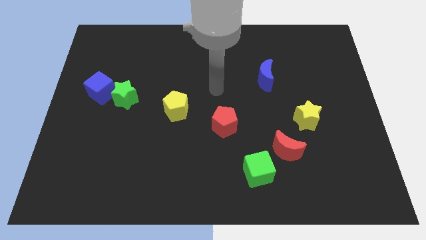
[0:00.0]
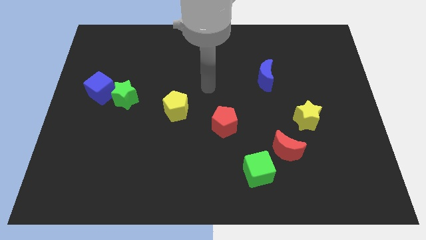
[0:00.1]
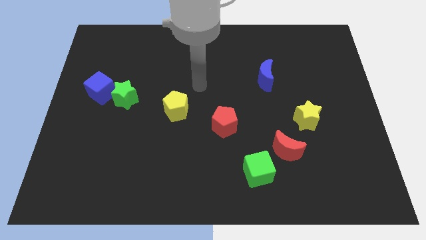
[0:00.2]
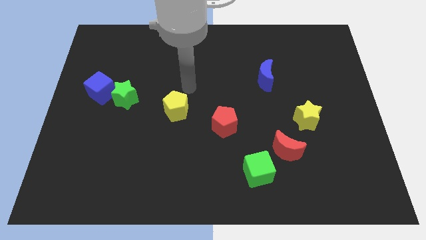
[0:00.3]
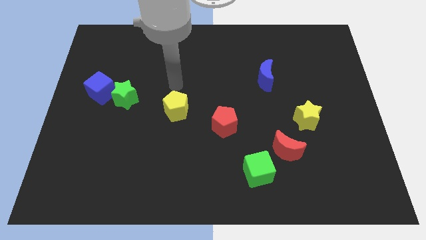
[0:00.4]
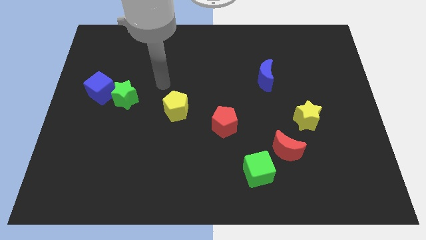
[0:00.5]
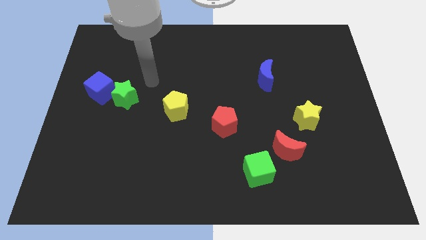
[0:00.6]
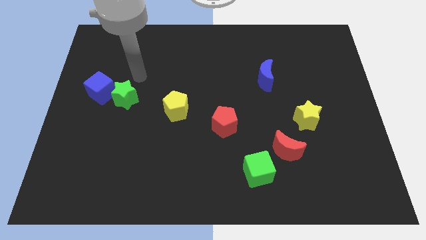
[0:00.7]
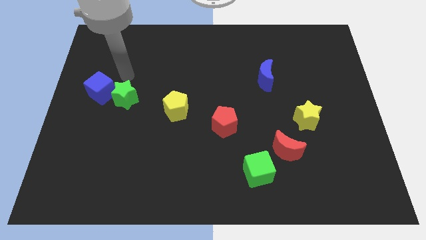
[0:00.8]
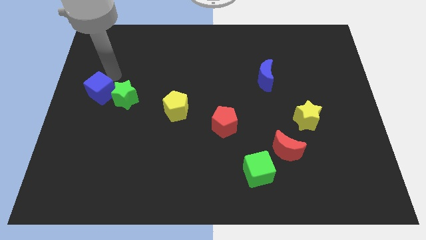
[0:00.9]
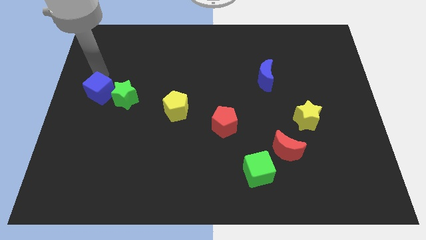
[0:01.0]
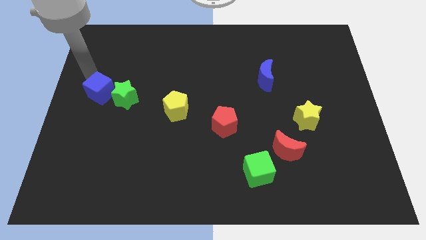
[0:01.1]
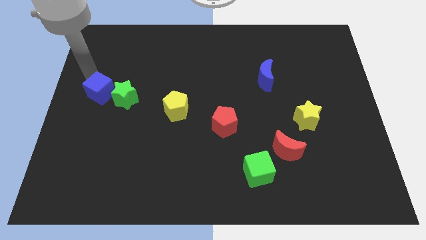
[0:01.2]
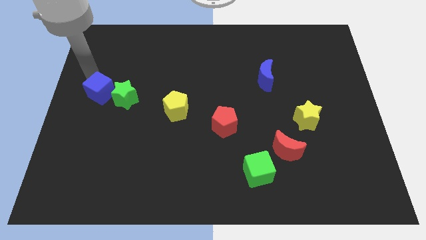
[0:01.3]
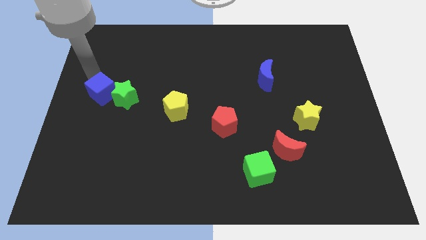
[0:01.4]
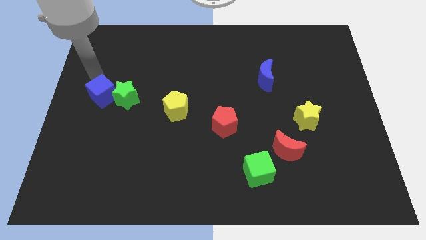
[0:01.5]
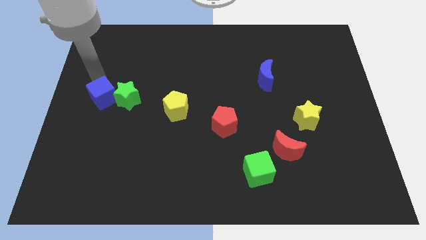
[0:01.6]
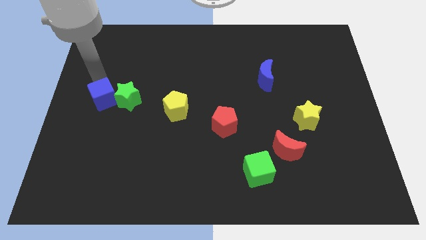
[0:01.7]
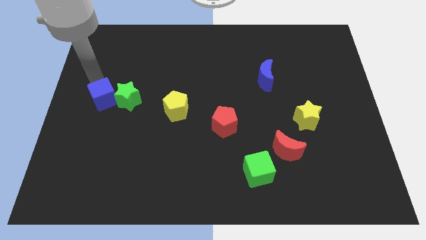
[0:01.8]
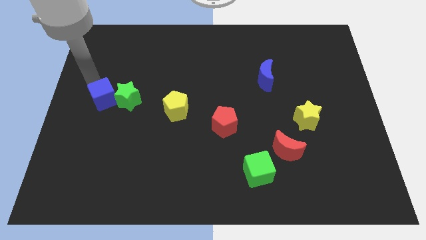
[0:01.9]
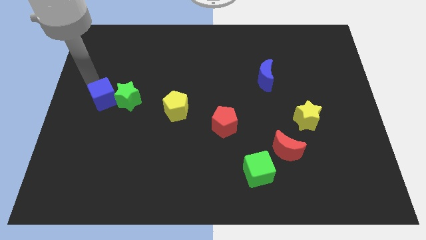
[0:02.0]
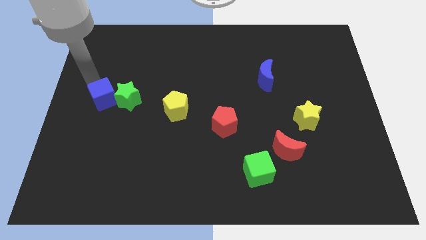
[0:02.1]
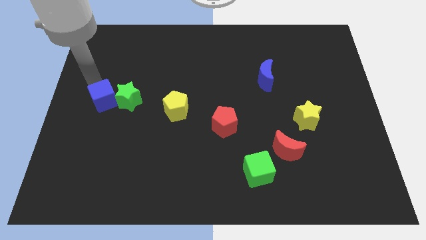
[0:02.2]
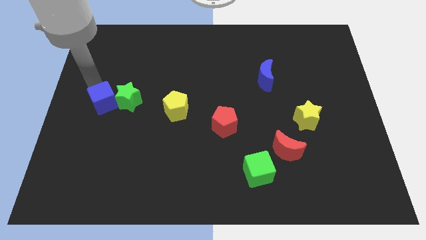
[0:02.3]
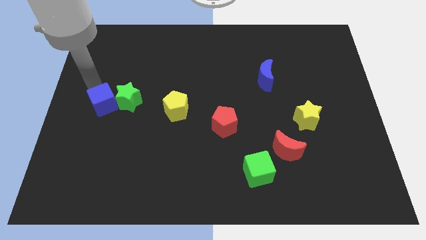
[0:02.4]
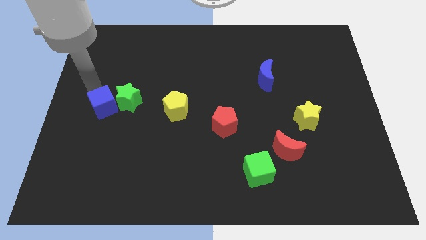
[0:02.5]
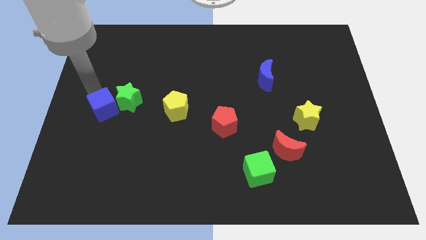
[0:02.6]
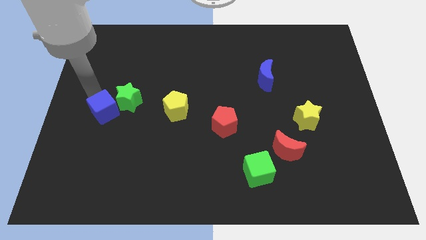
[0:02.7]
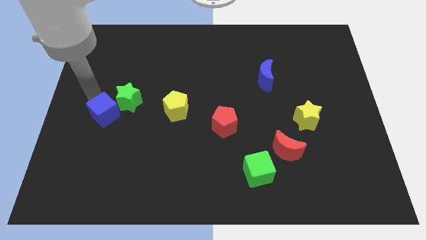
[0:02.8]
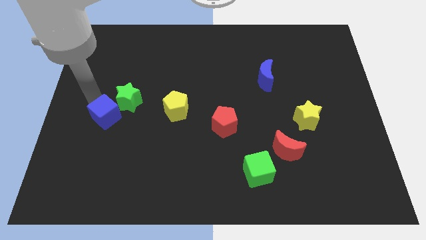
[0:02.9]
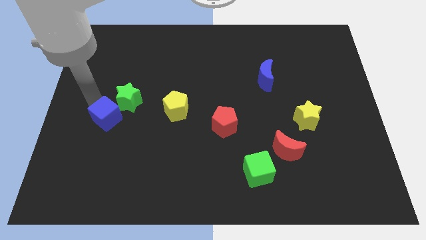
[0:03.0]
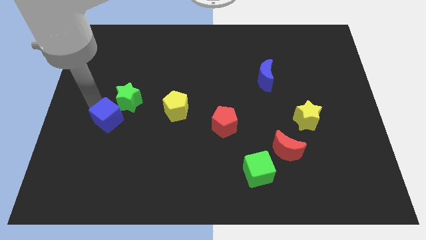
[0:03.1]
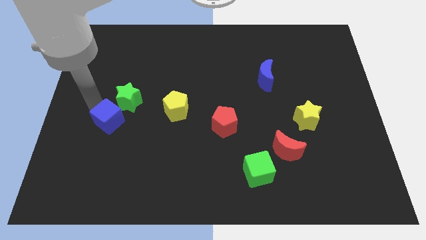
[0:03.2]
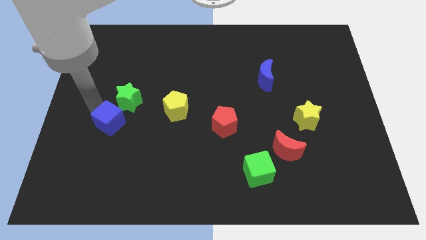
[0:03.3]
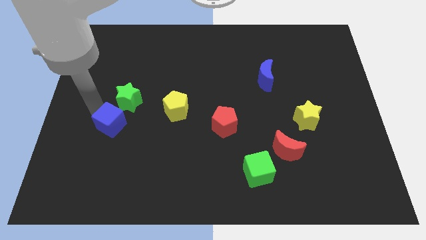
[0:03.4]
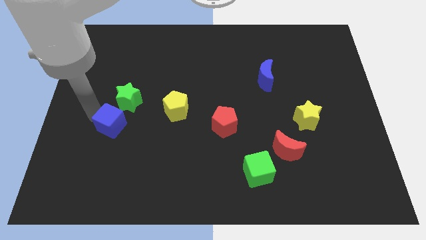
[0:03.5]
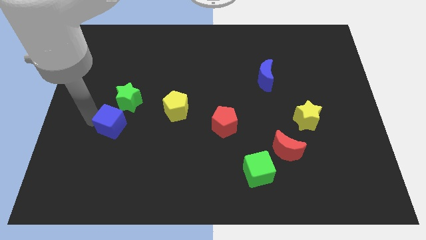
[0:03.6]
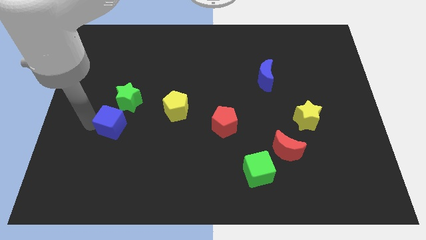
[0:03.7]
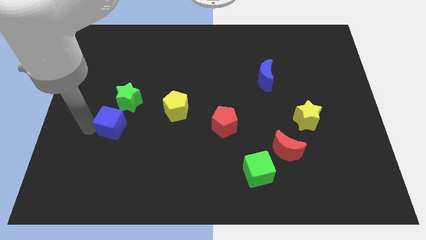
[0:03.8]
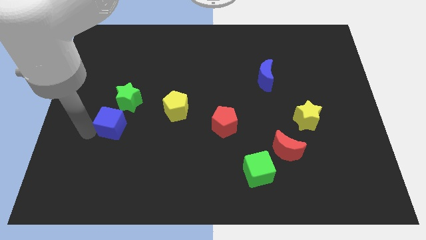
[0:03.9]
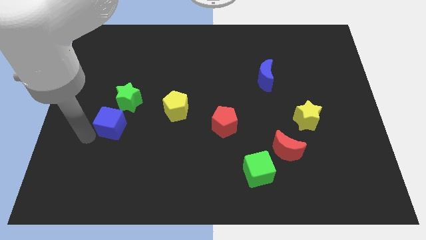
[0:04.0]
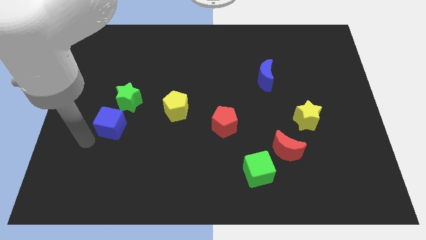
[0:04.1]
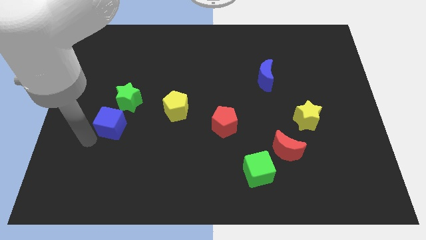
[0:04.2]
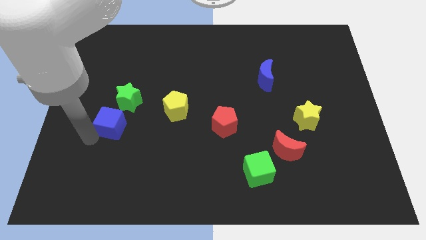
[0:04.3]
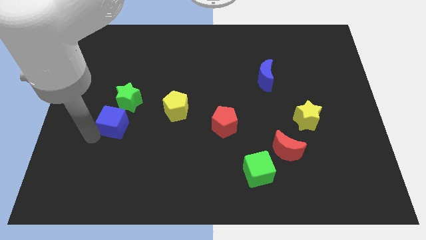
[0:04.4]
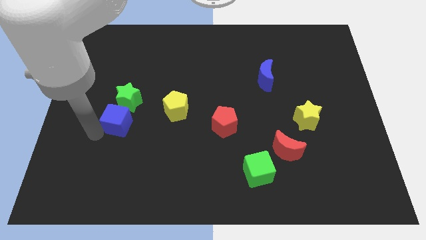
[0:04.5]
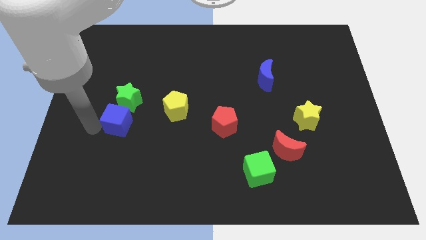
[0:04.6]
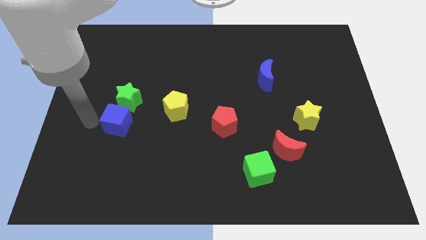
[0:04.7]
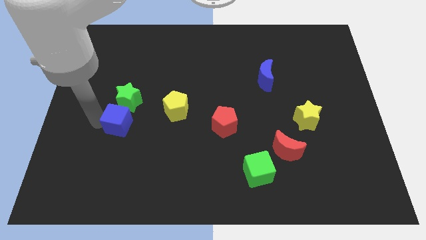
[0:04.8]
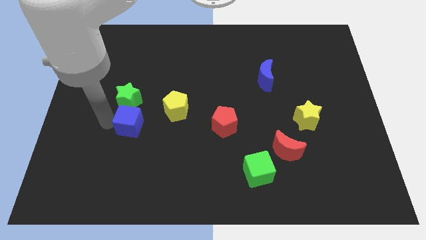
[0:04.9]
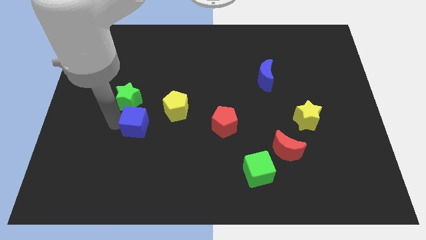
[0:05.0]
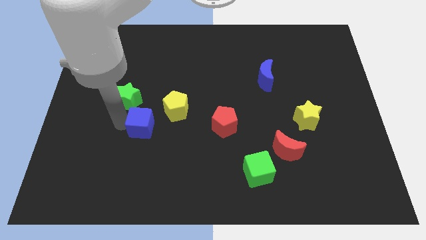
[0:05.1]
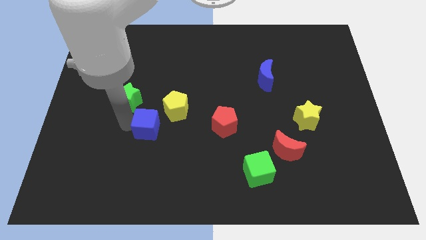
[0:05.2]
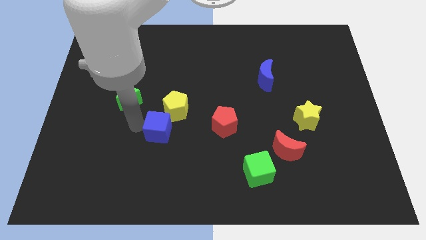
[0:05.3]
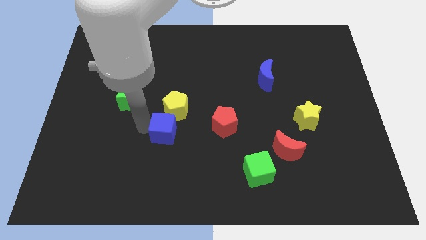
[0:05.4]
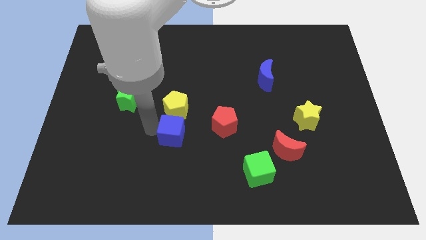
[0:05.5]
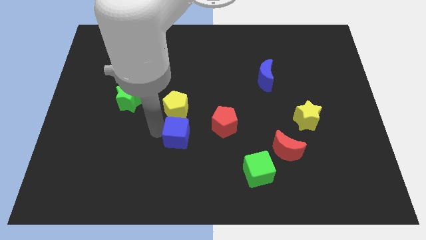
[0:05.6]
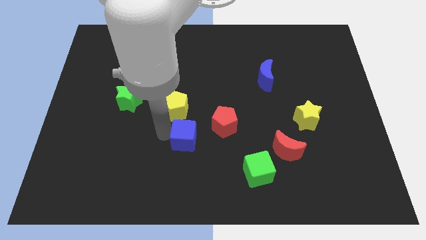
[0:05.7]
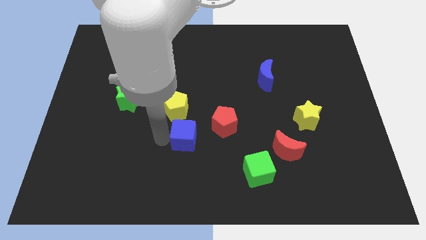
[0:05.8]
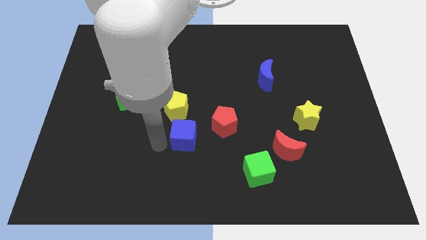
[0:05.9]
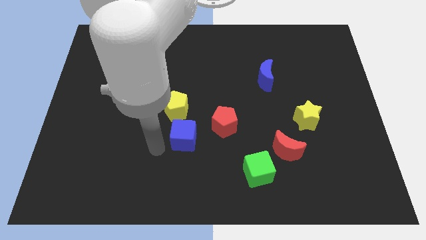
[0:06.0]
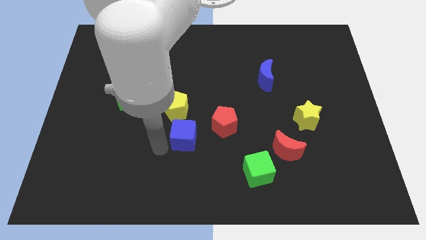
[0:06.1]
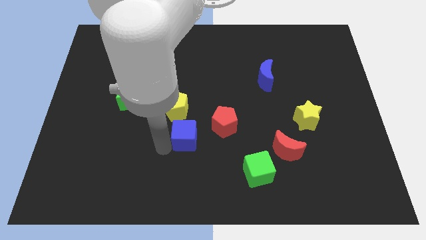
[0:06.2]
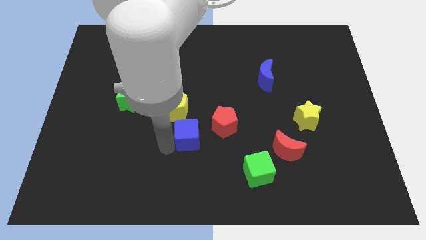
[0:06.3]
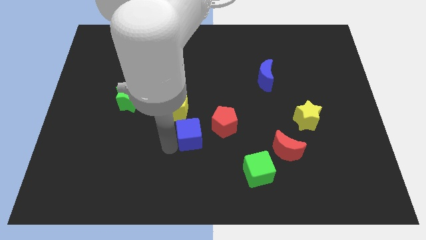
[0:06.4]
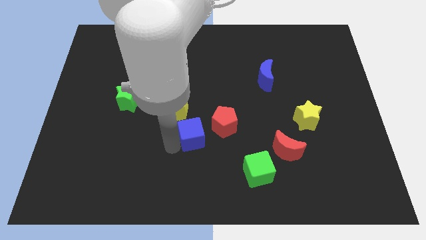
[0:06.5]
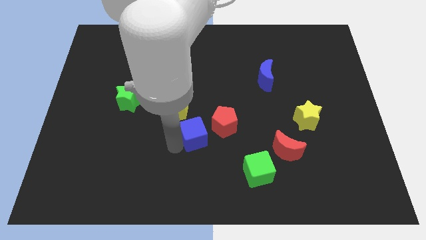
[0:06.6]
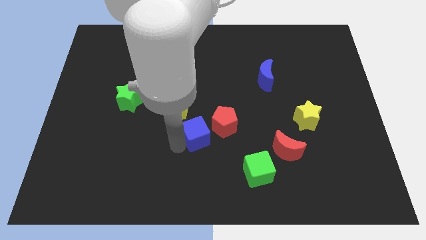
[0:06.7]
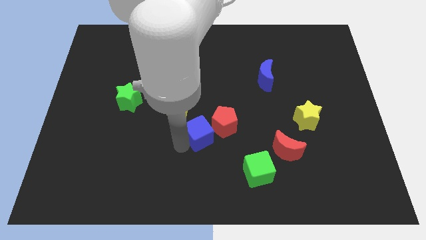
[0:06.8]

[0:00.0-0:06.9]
push the blue cube next to the red pentagon
